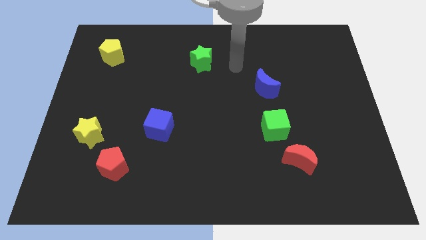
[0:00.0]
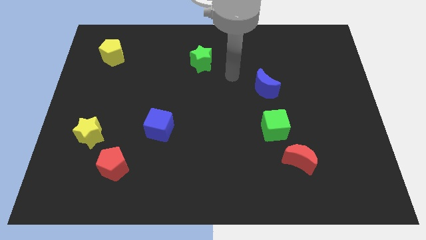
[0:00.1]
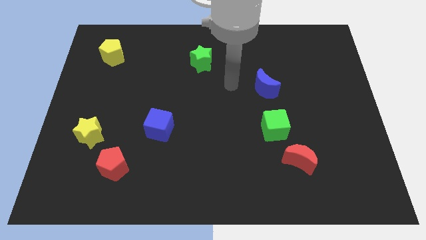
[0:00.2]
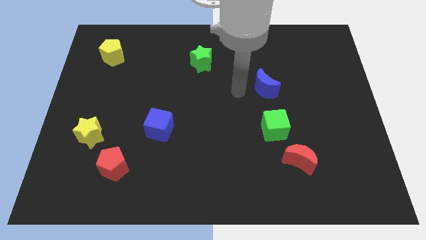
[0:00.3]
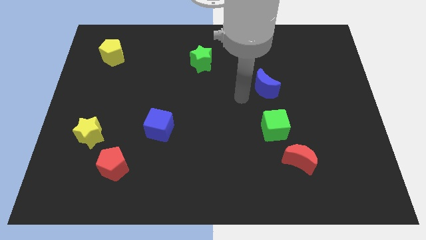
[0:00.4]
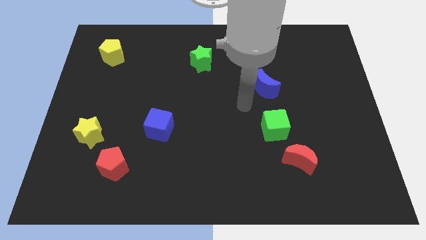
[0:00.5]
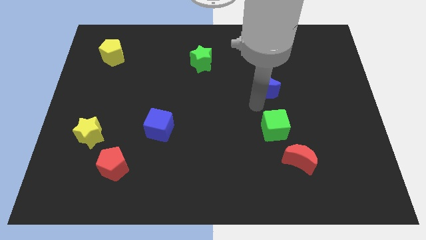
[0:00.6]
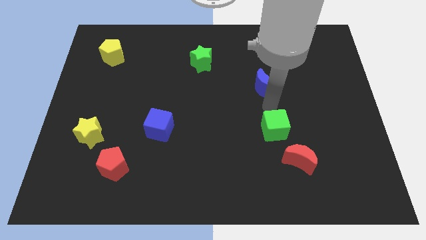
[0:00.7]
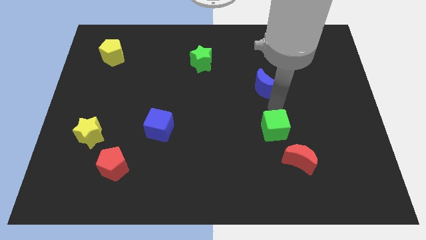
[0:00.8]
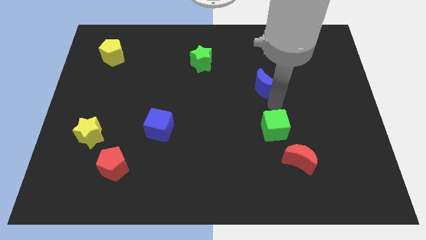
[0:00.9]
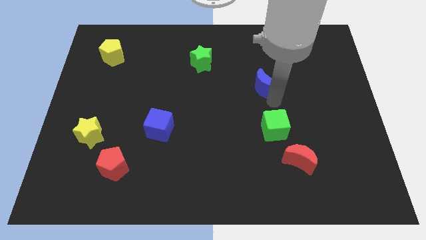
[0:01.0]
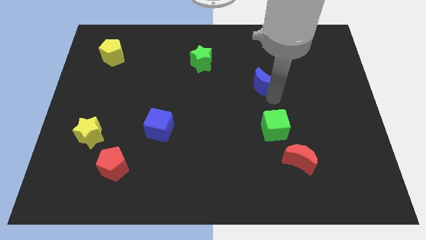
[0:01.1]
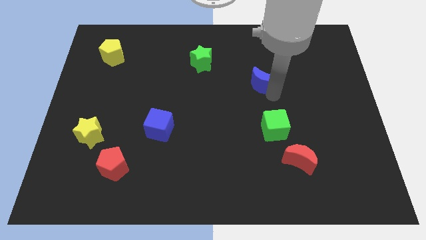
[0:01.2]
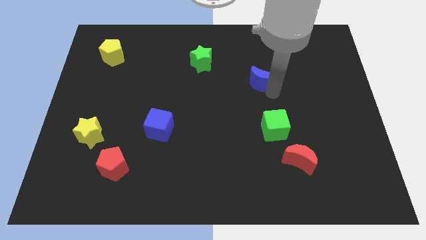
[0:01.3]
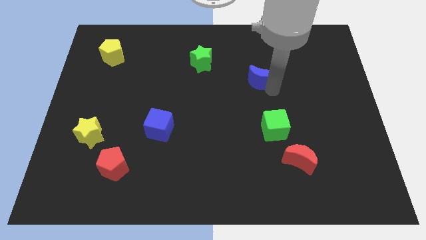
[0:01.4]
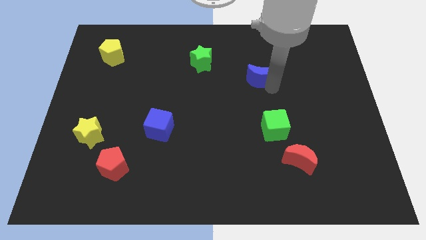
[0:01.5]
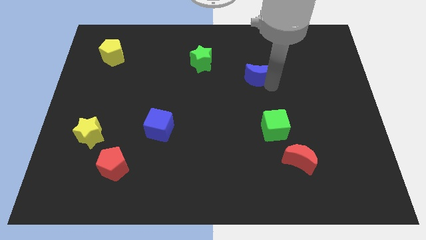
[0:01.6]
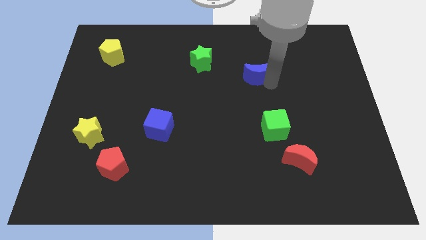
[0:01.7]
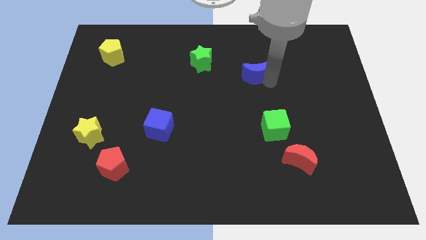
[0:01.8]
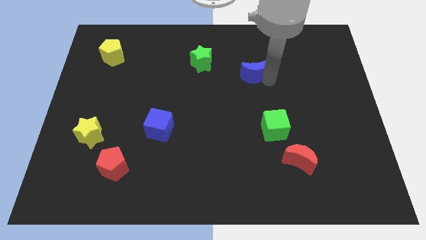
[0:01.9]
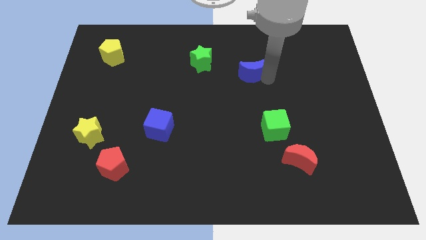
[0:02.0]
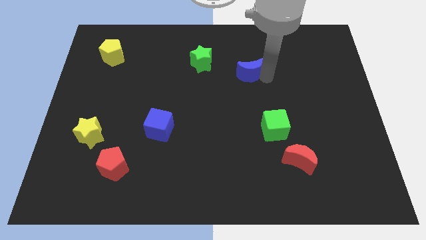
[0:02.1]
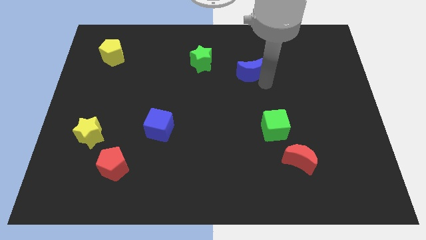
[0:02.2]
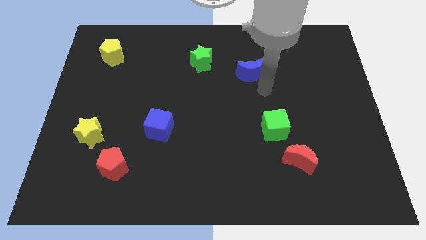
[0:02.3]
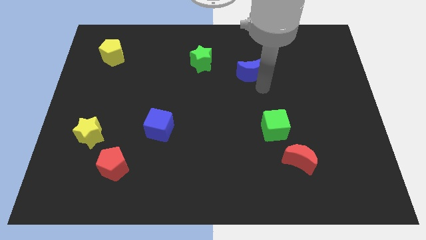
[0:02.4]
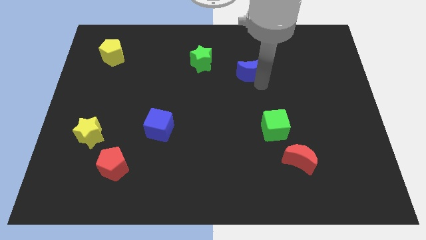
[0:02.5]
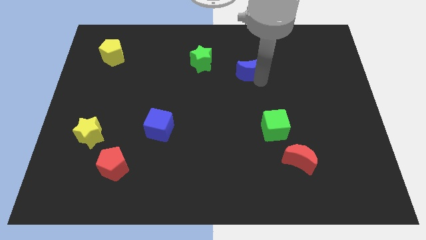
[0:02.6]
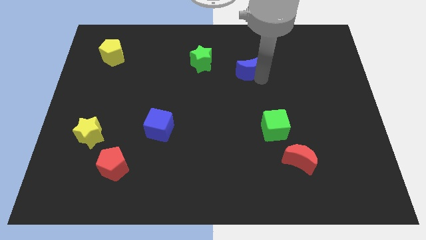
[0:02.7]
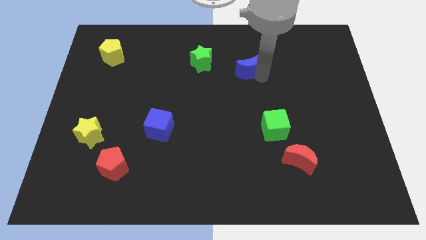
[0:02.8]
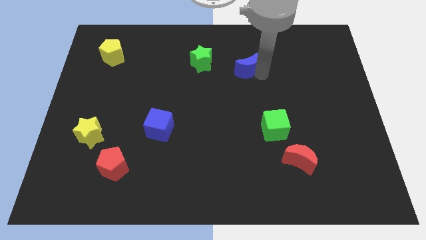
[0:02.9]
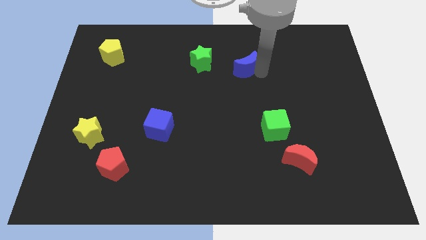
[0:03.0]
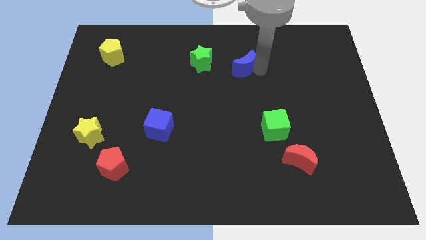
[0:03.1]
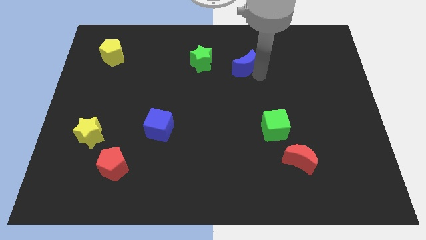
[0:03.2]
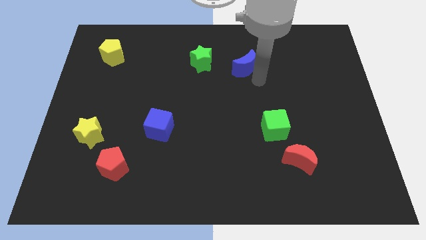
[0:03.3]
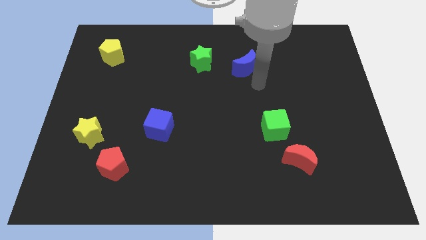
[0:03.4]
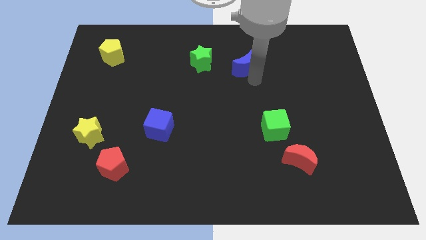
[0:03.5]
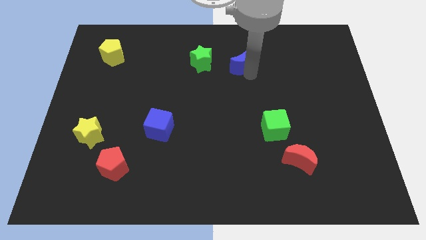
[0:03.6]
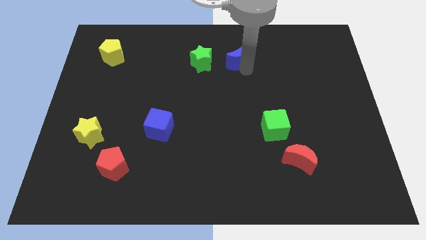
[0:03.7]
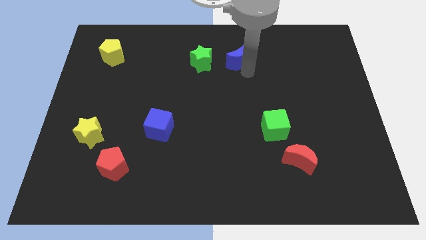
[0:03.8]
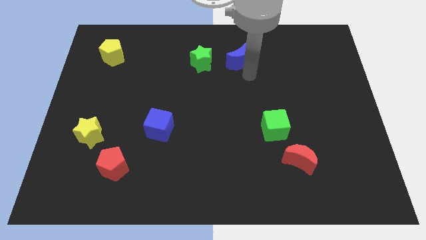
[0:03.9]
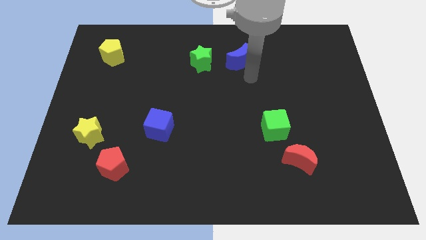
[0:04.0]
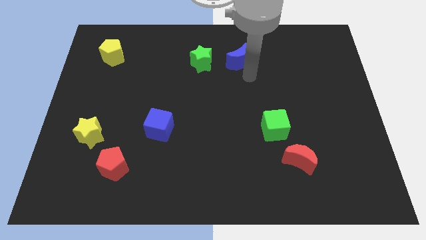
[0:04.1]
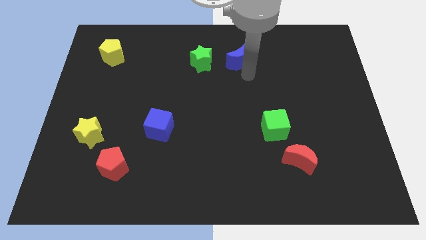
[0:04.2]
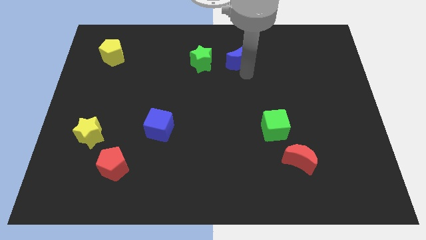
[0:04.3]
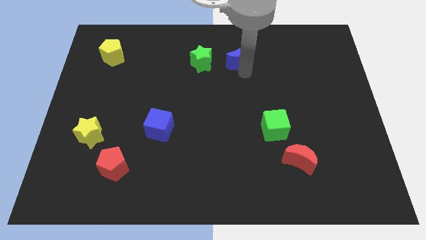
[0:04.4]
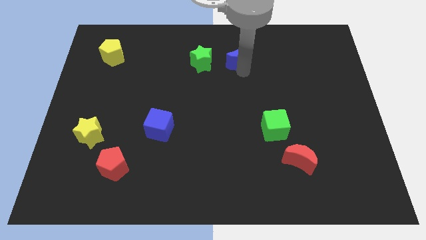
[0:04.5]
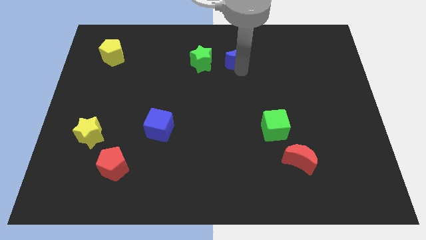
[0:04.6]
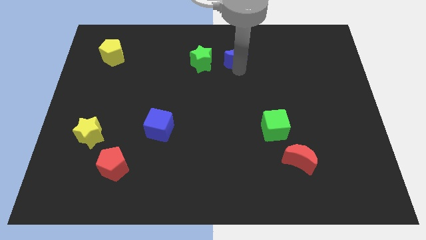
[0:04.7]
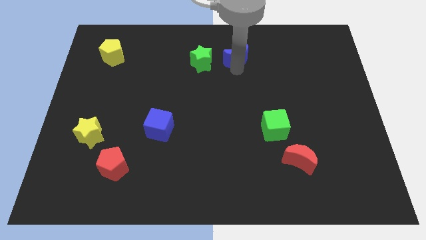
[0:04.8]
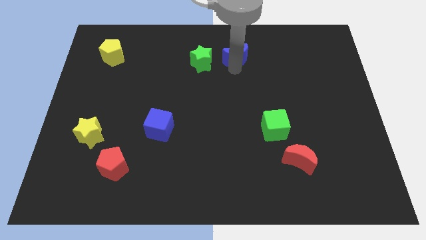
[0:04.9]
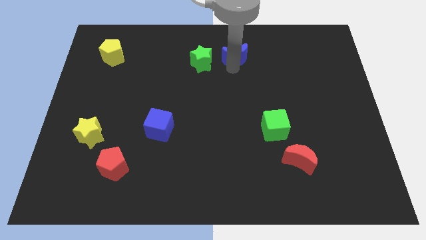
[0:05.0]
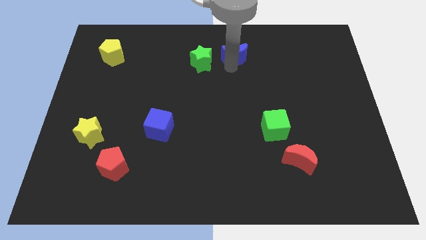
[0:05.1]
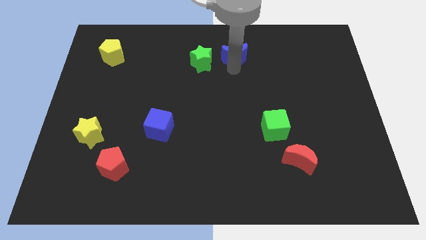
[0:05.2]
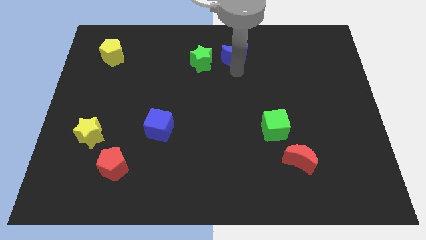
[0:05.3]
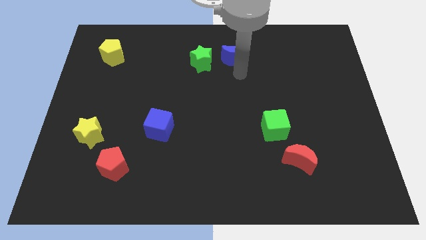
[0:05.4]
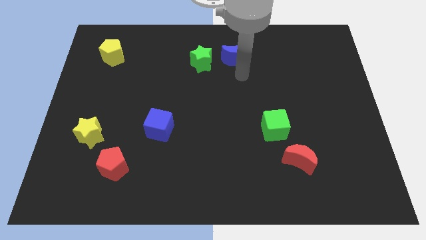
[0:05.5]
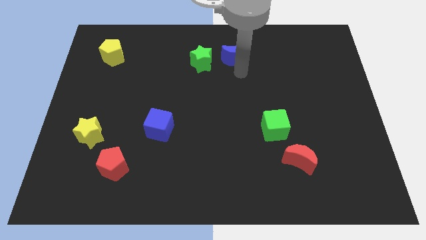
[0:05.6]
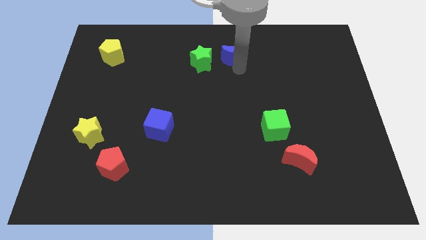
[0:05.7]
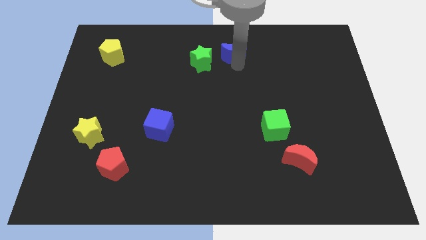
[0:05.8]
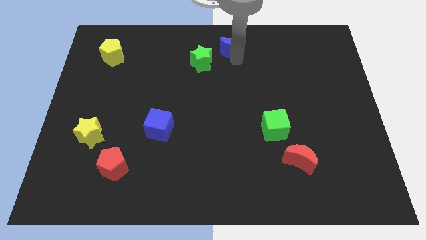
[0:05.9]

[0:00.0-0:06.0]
slide the blue moon to the towards your base

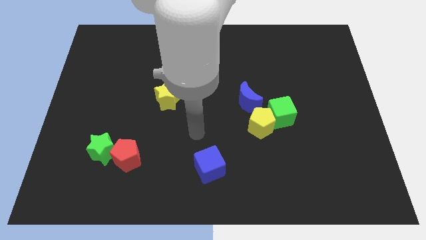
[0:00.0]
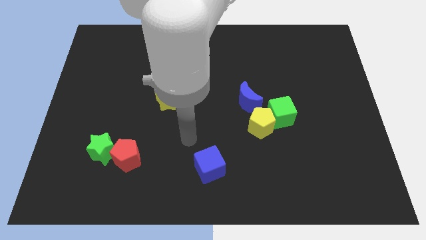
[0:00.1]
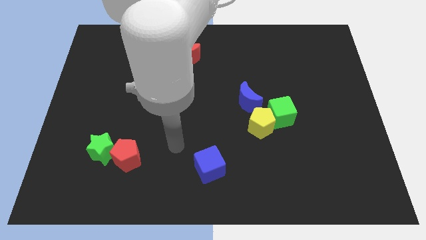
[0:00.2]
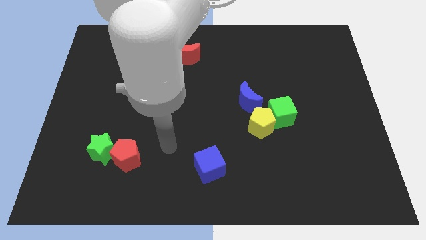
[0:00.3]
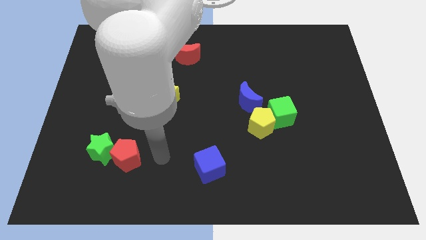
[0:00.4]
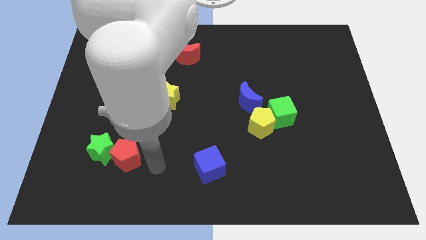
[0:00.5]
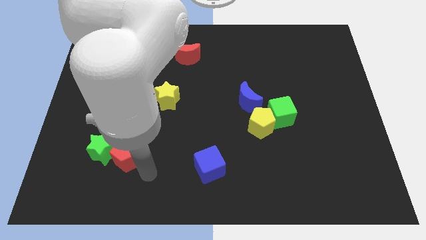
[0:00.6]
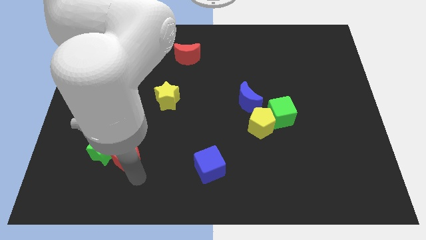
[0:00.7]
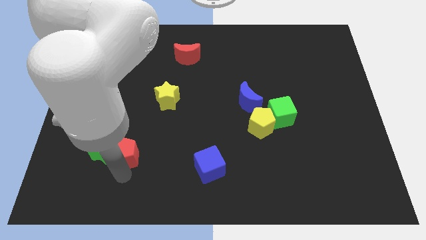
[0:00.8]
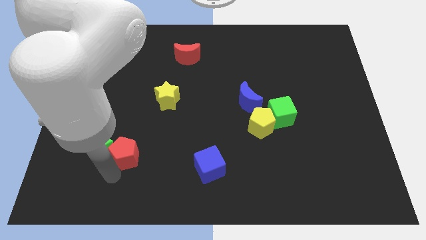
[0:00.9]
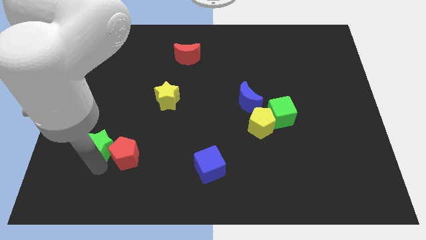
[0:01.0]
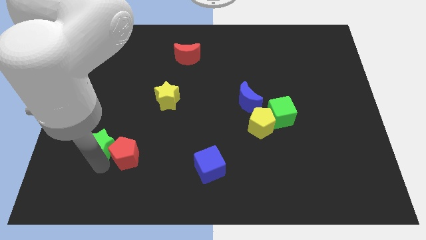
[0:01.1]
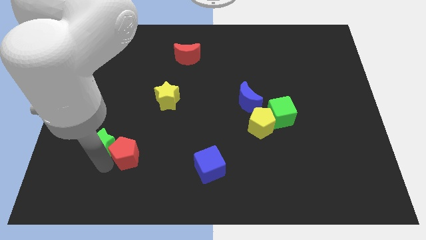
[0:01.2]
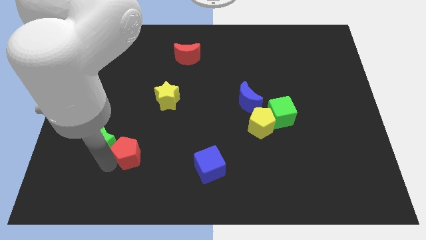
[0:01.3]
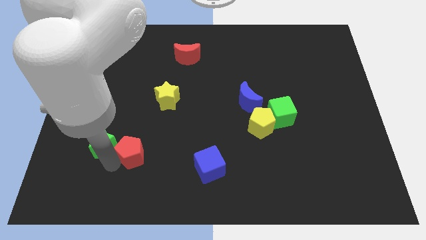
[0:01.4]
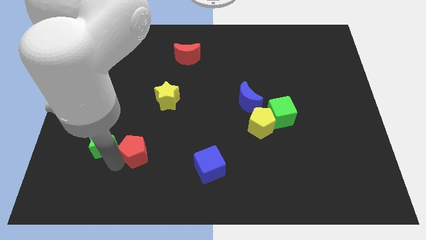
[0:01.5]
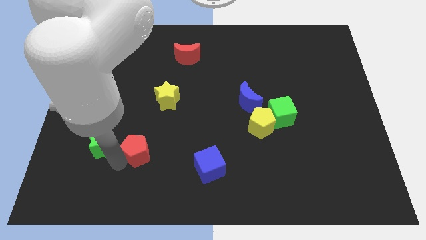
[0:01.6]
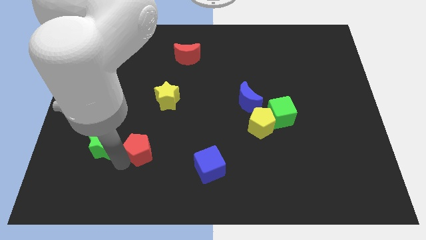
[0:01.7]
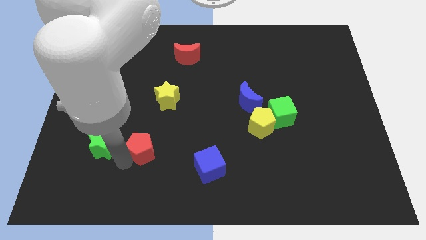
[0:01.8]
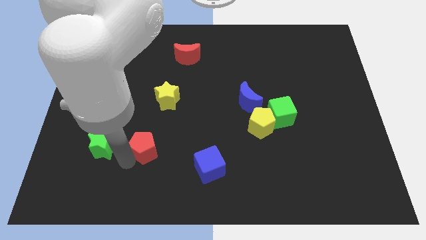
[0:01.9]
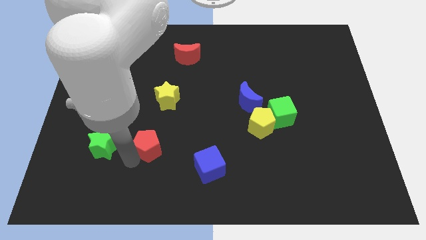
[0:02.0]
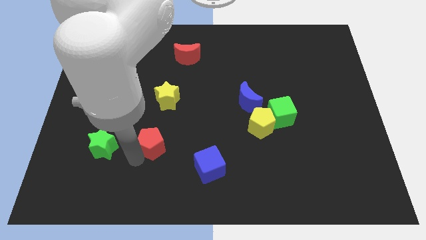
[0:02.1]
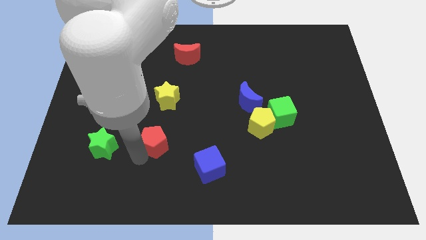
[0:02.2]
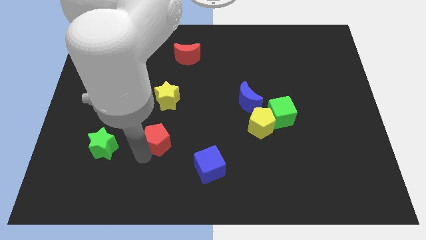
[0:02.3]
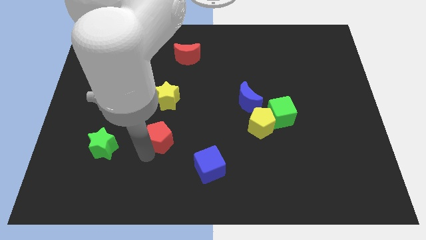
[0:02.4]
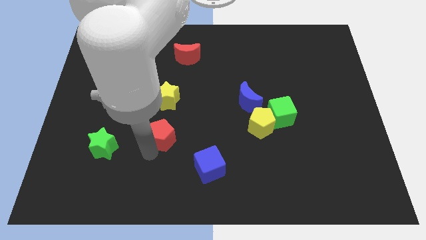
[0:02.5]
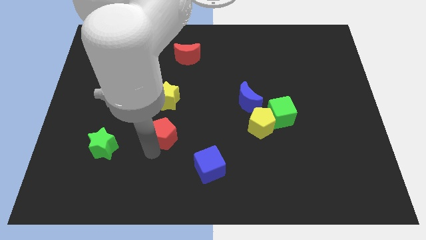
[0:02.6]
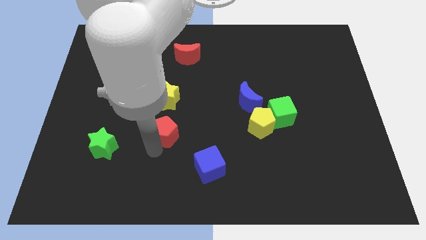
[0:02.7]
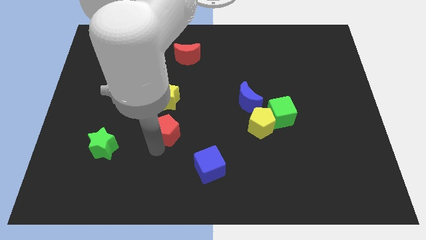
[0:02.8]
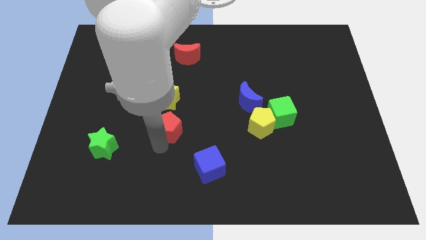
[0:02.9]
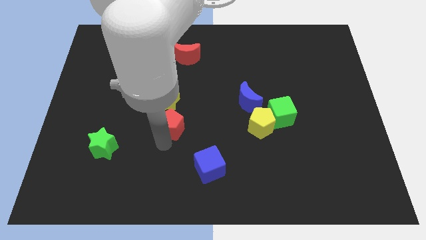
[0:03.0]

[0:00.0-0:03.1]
push the red pentagon to the middle of the board
